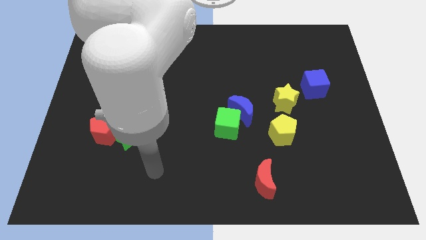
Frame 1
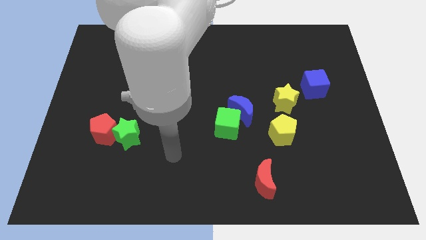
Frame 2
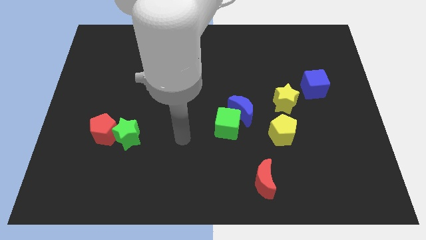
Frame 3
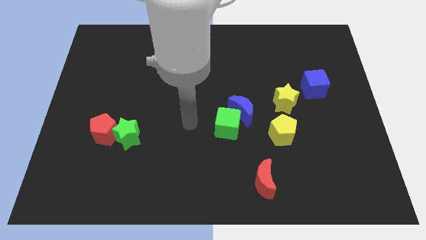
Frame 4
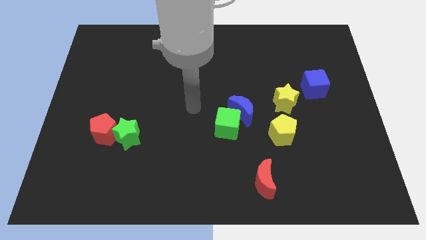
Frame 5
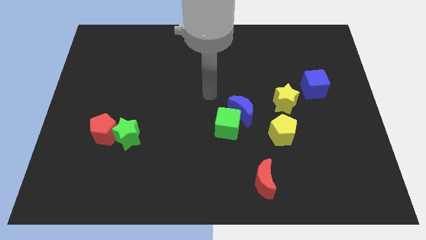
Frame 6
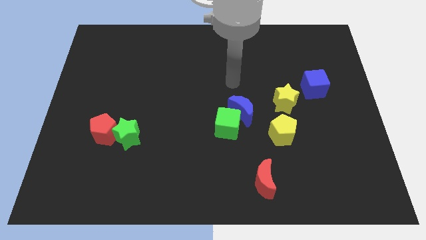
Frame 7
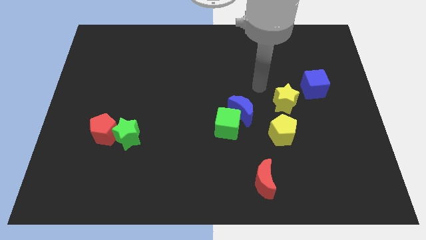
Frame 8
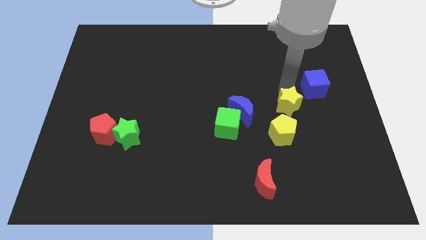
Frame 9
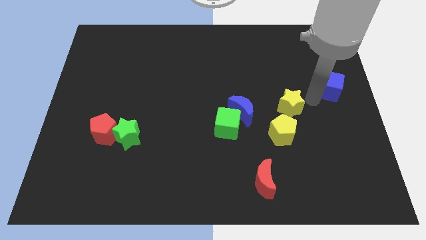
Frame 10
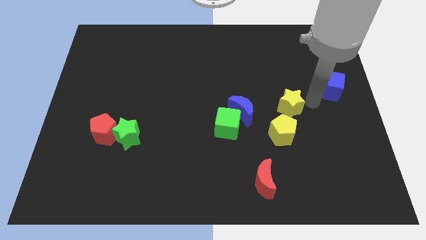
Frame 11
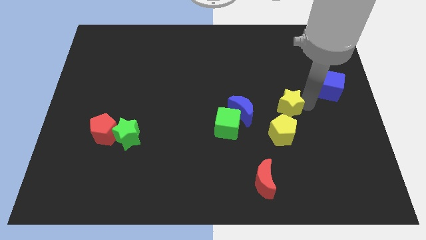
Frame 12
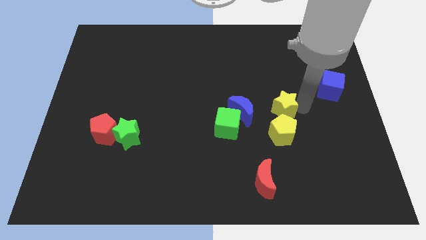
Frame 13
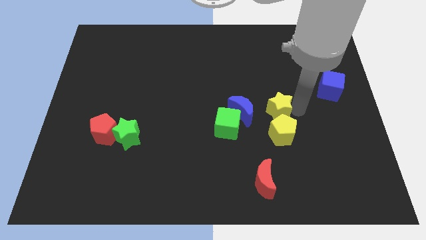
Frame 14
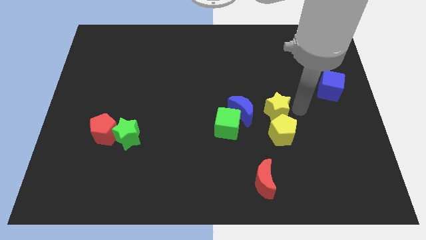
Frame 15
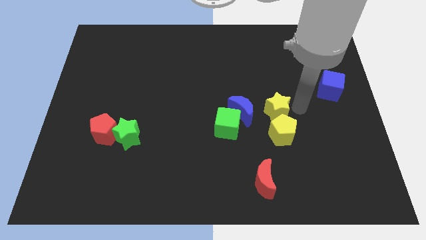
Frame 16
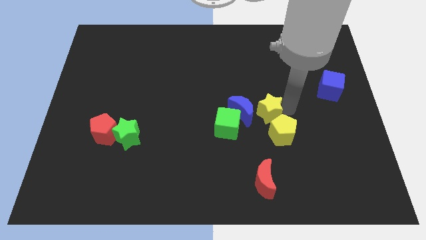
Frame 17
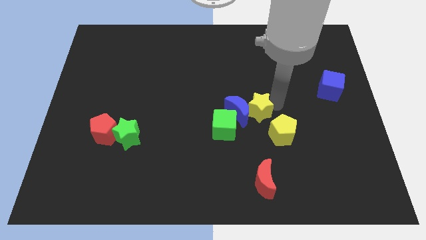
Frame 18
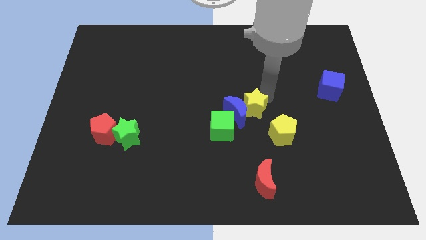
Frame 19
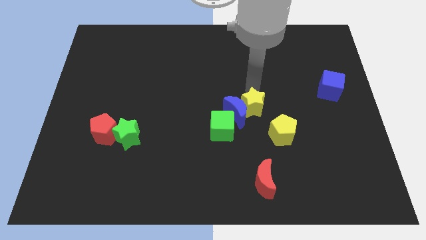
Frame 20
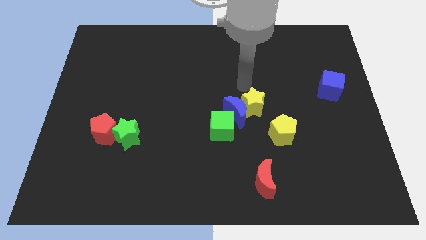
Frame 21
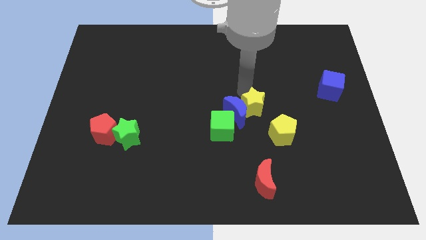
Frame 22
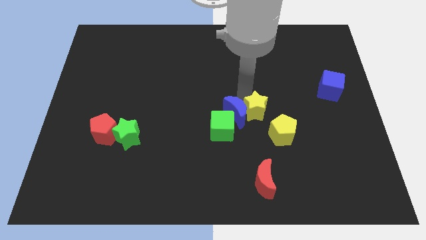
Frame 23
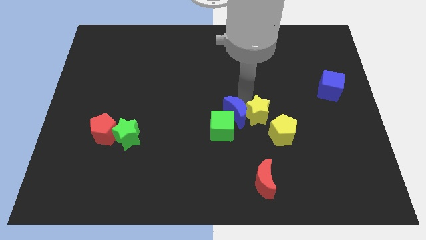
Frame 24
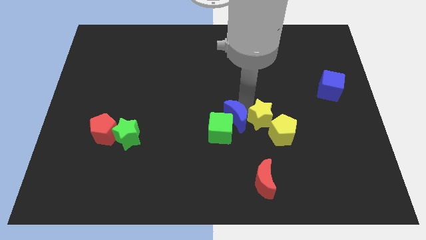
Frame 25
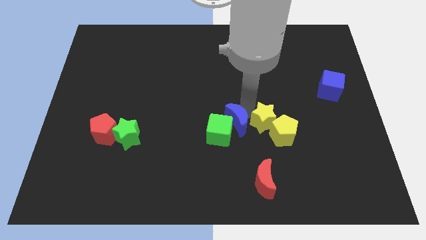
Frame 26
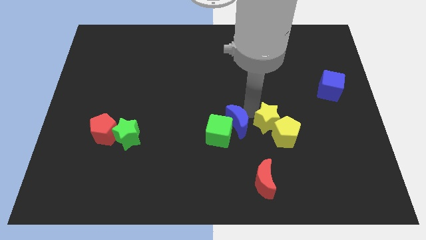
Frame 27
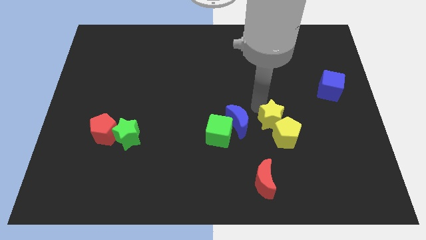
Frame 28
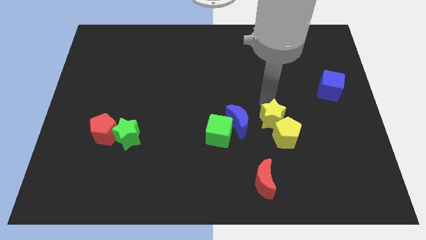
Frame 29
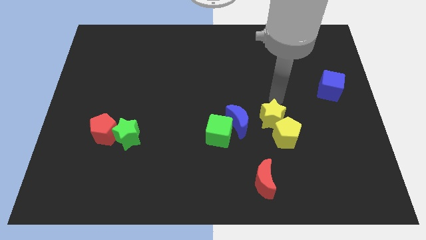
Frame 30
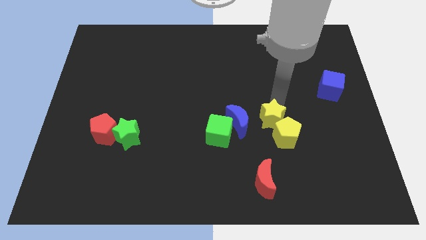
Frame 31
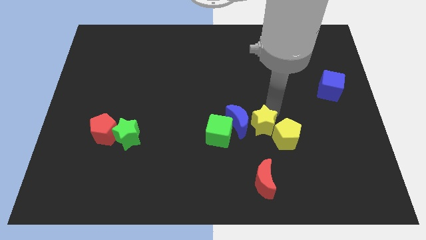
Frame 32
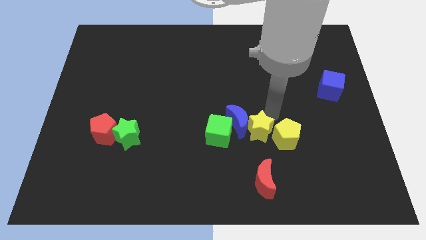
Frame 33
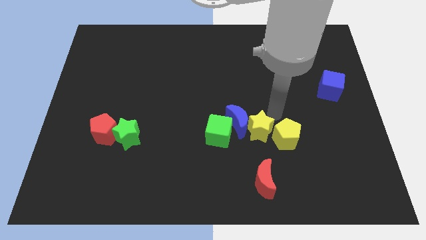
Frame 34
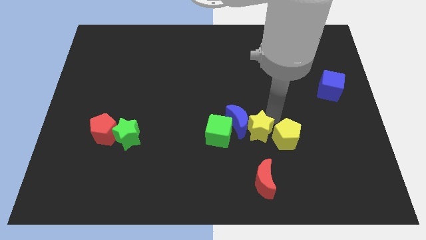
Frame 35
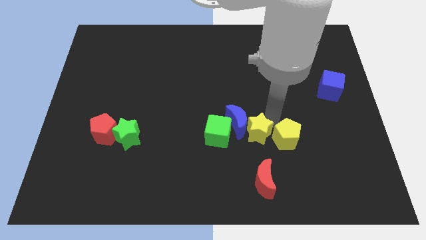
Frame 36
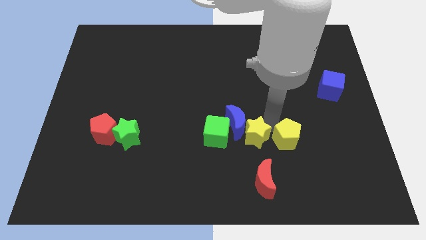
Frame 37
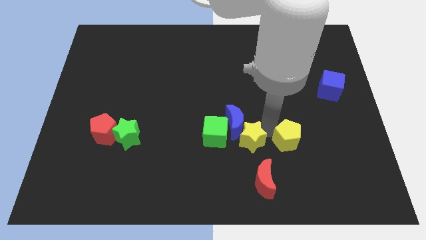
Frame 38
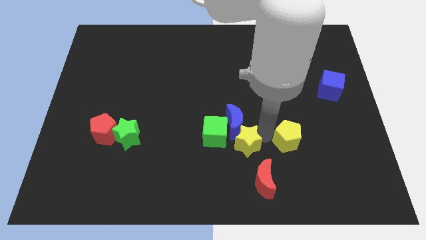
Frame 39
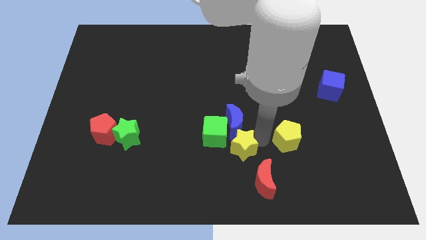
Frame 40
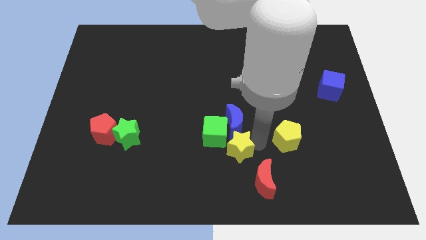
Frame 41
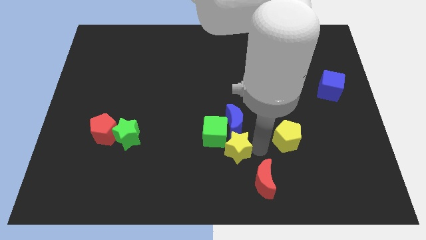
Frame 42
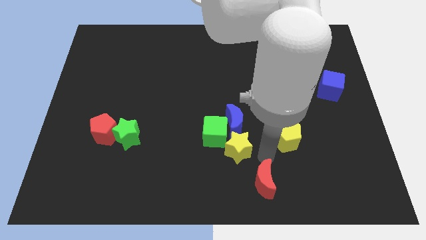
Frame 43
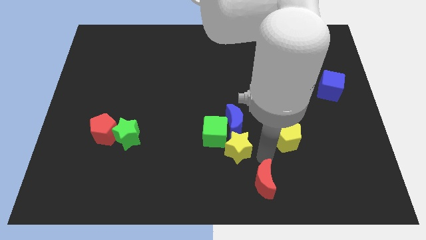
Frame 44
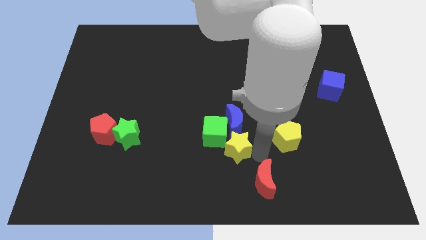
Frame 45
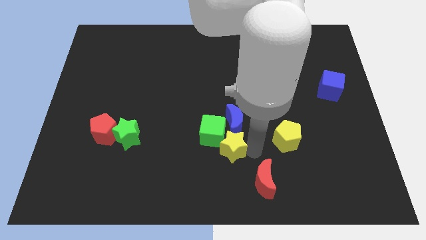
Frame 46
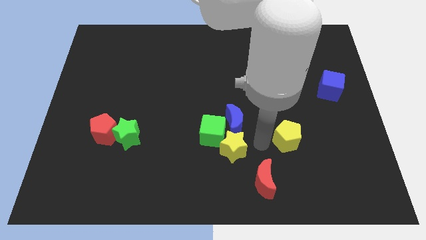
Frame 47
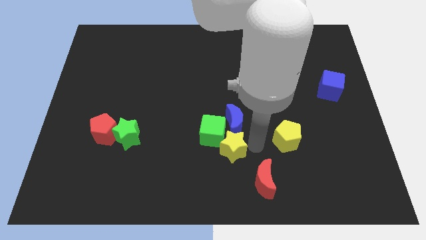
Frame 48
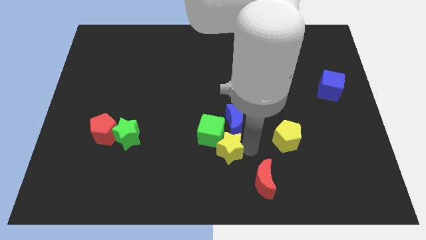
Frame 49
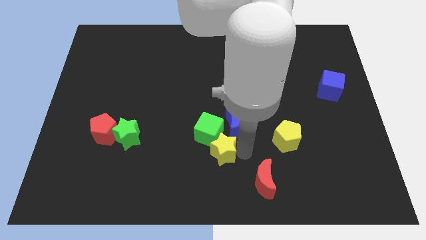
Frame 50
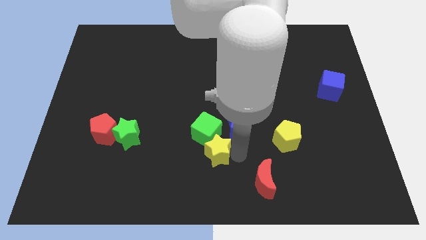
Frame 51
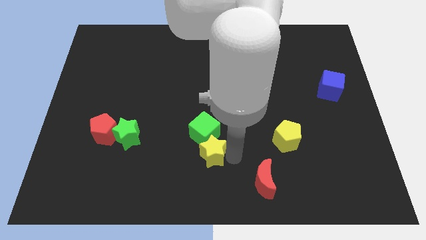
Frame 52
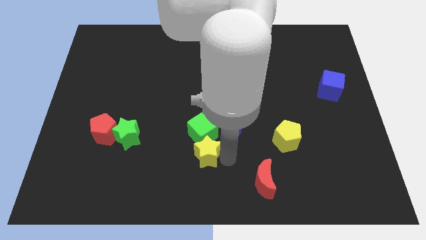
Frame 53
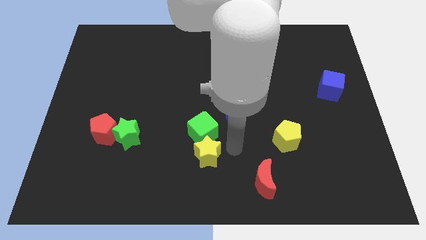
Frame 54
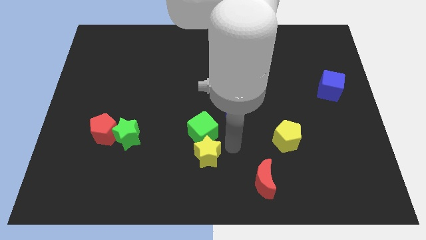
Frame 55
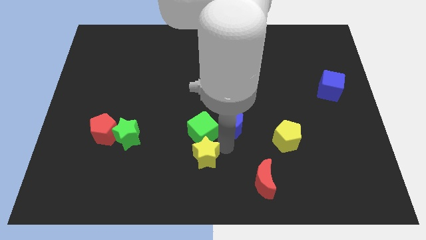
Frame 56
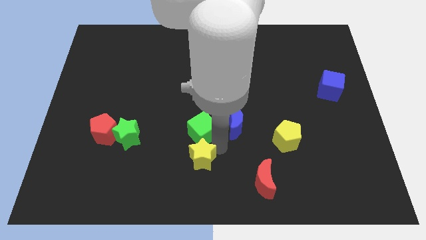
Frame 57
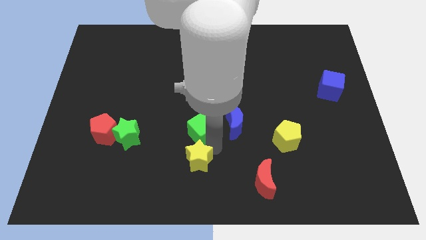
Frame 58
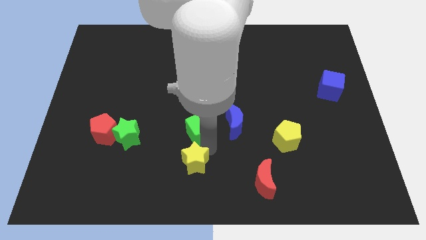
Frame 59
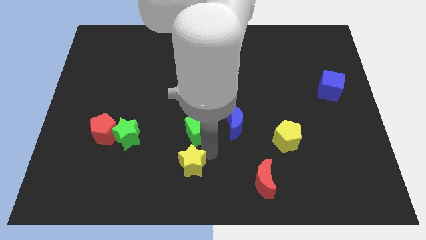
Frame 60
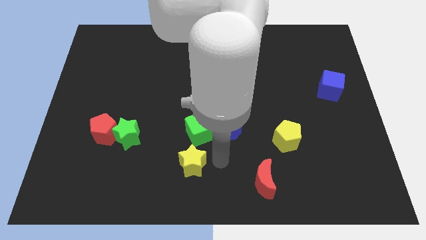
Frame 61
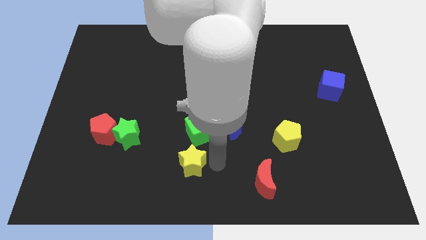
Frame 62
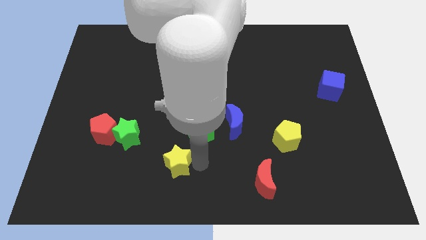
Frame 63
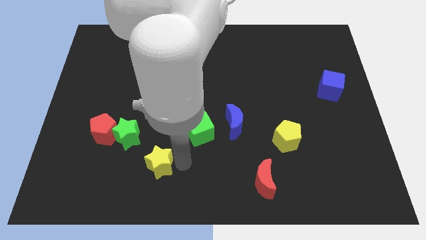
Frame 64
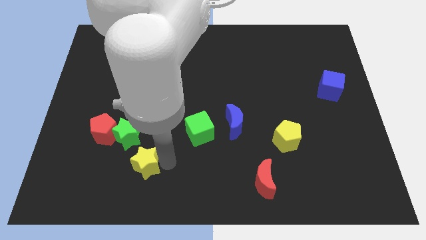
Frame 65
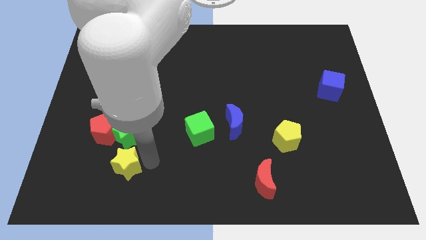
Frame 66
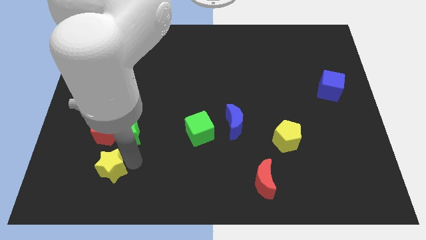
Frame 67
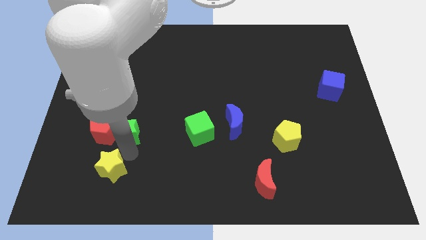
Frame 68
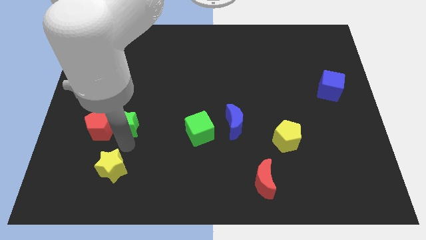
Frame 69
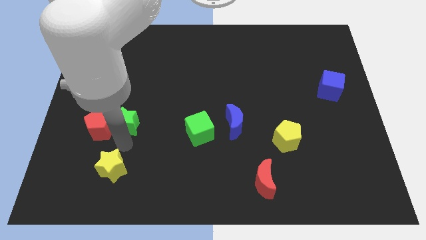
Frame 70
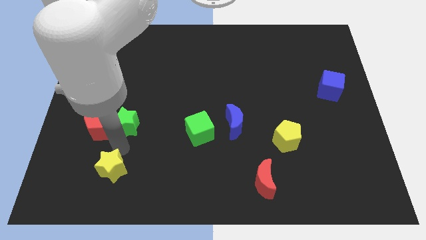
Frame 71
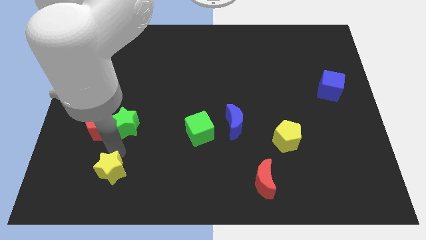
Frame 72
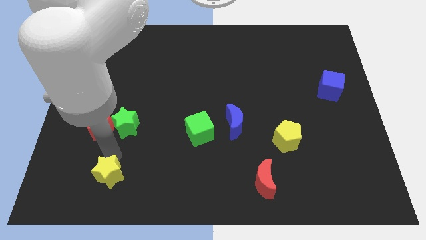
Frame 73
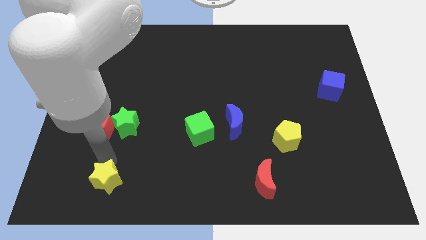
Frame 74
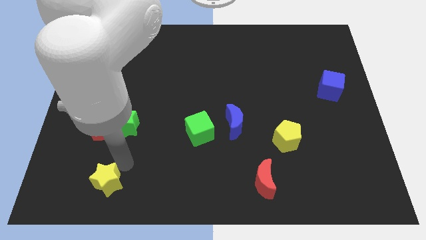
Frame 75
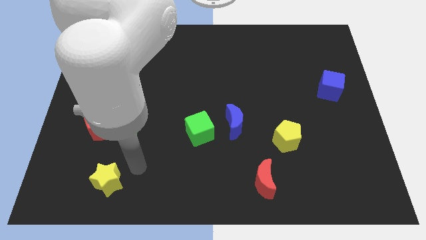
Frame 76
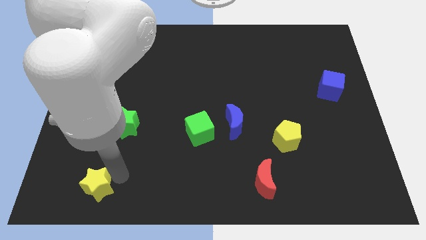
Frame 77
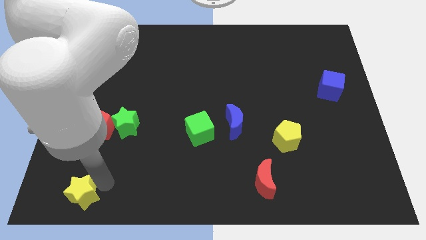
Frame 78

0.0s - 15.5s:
push the yellow star to the bottom left
